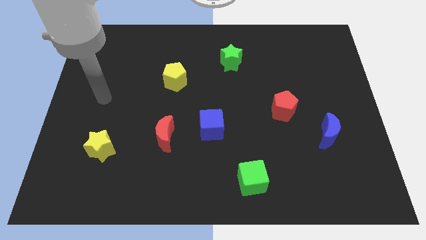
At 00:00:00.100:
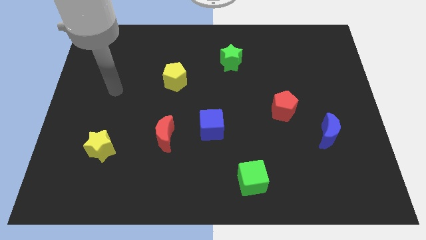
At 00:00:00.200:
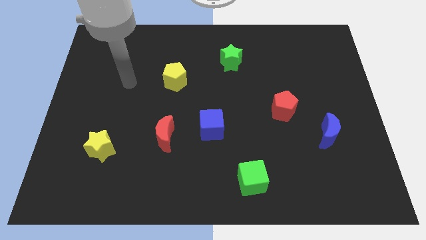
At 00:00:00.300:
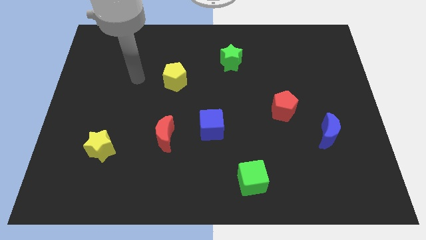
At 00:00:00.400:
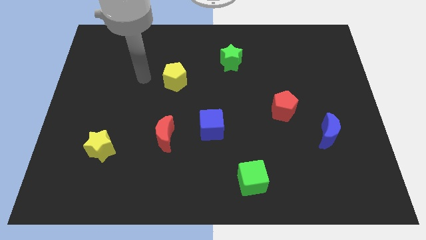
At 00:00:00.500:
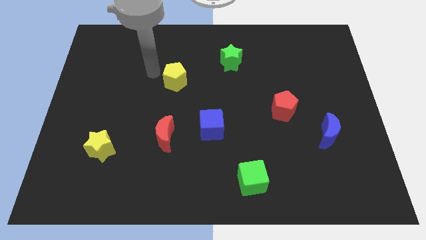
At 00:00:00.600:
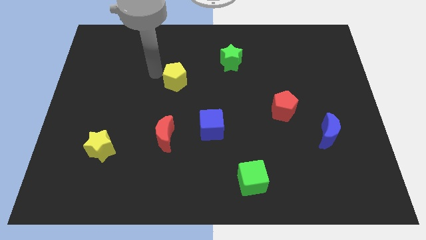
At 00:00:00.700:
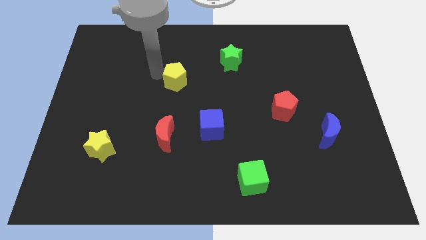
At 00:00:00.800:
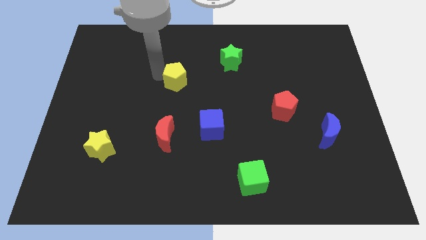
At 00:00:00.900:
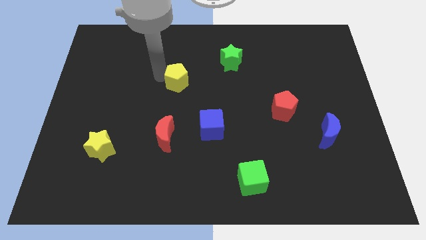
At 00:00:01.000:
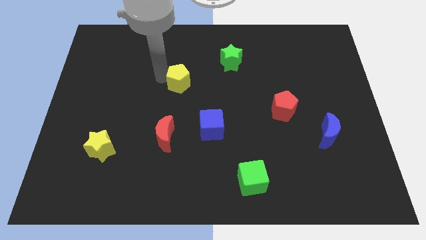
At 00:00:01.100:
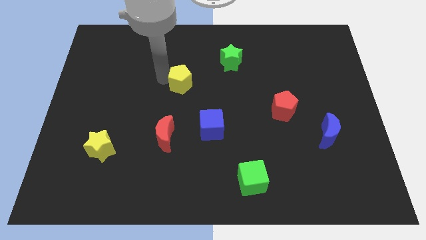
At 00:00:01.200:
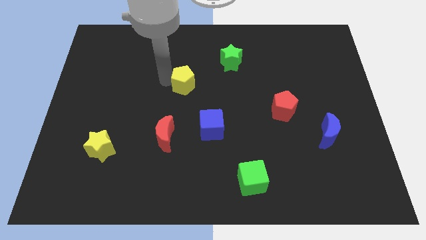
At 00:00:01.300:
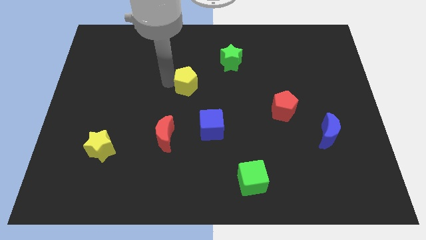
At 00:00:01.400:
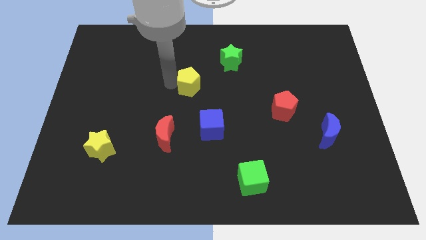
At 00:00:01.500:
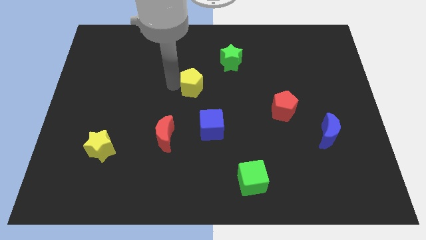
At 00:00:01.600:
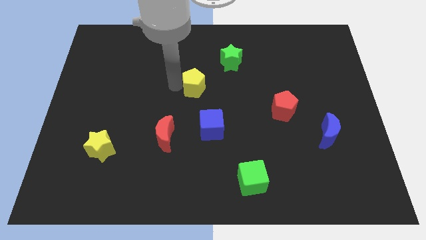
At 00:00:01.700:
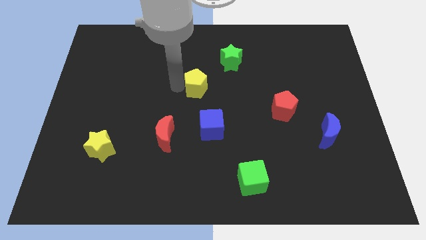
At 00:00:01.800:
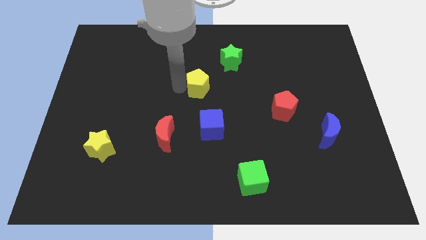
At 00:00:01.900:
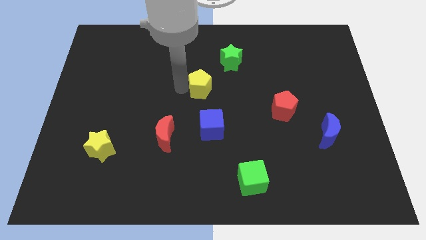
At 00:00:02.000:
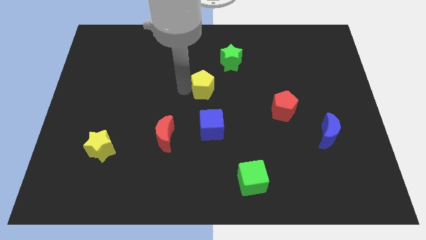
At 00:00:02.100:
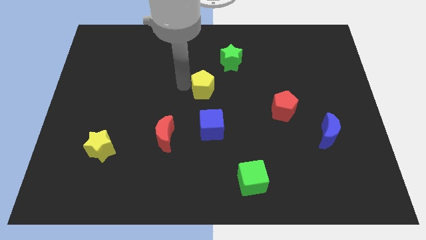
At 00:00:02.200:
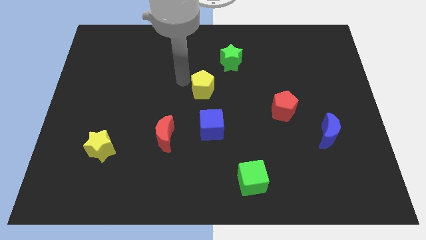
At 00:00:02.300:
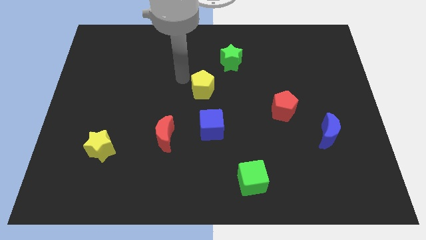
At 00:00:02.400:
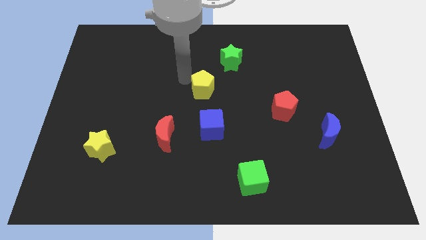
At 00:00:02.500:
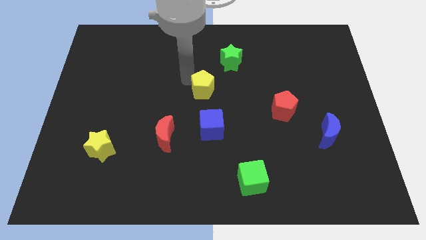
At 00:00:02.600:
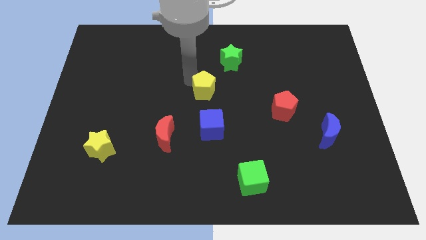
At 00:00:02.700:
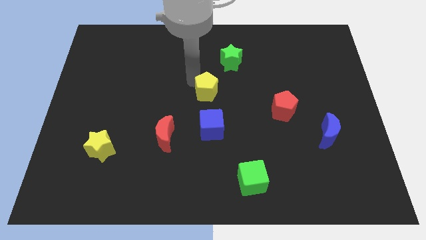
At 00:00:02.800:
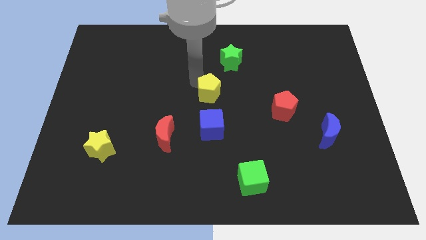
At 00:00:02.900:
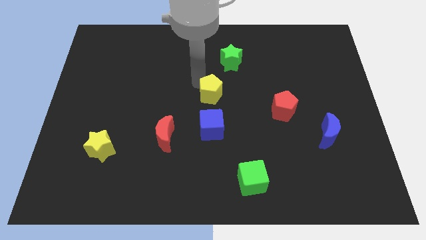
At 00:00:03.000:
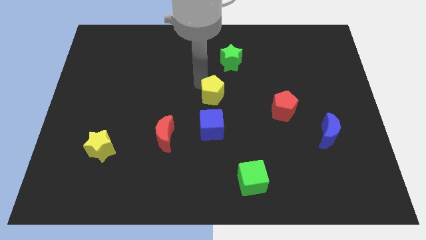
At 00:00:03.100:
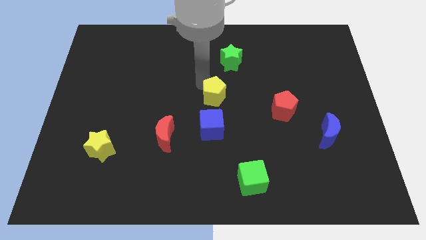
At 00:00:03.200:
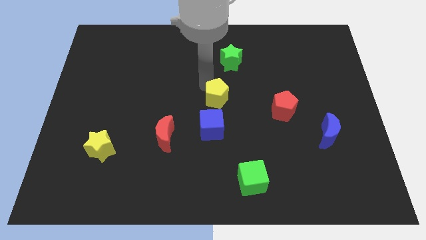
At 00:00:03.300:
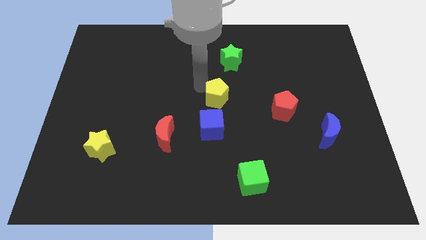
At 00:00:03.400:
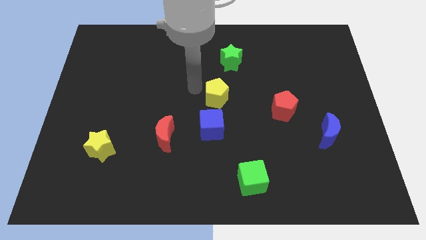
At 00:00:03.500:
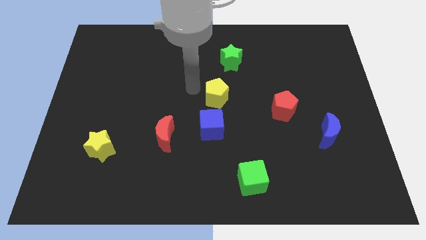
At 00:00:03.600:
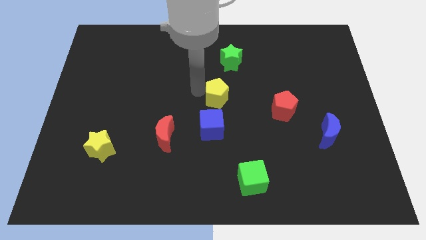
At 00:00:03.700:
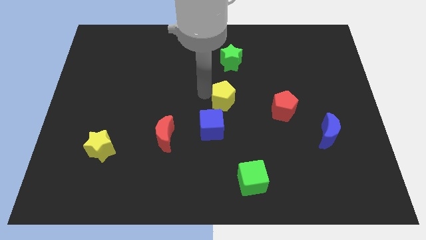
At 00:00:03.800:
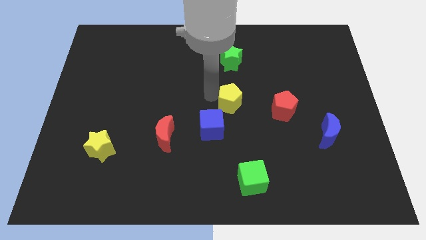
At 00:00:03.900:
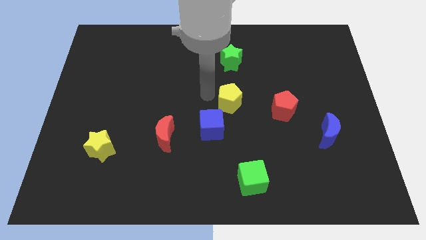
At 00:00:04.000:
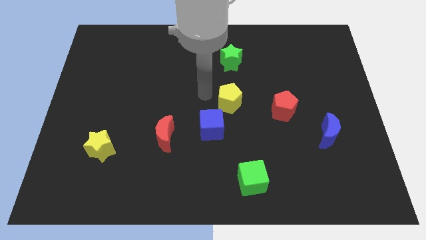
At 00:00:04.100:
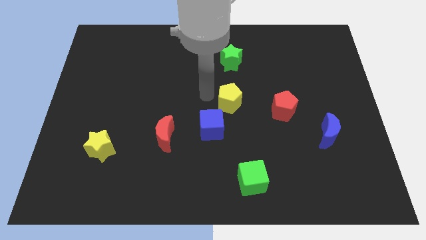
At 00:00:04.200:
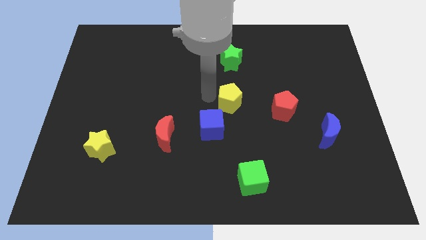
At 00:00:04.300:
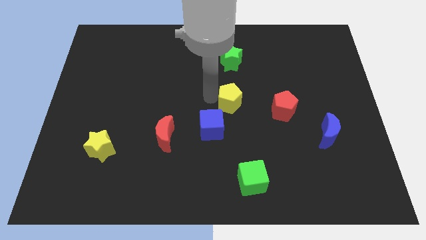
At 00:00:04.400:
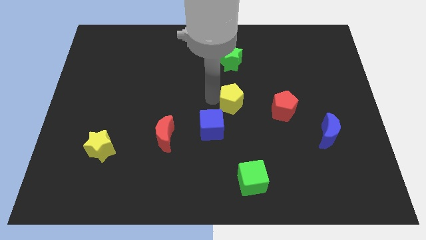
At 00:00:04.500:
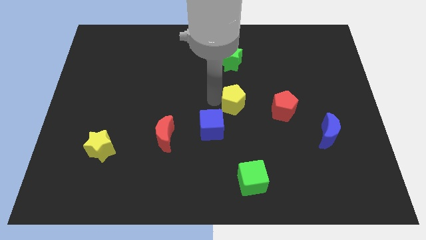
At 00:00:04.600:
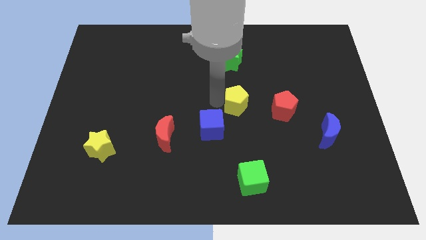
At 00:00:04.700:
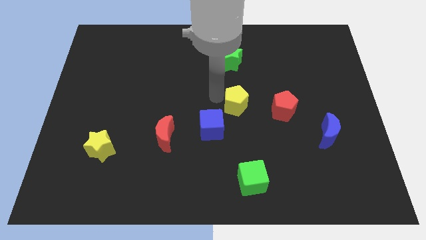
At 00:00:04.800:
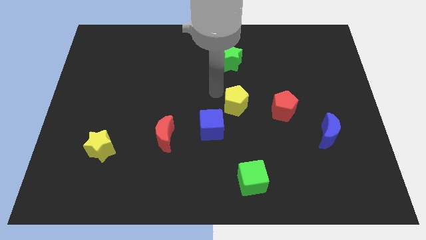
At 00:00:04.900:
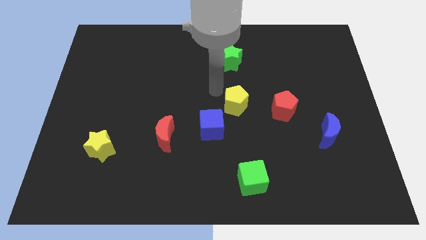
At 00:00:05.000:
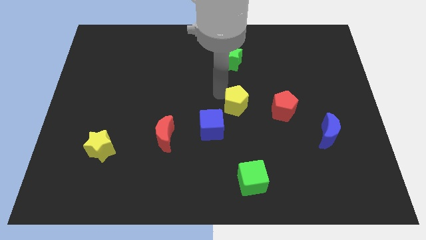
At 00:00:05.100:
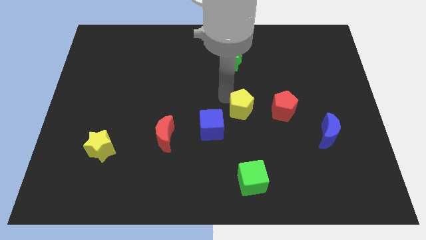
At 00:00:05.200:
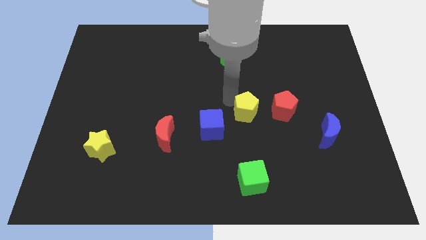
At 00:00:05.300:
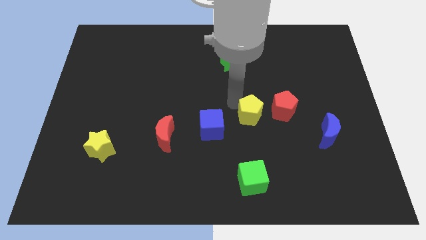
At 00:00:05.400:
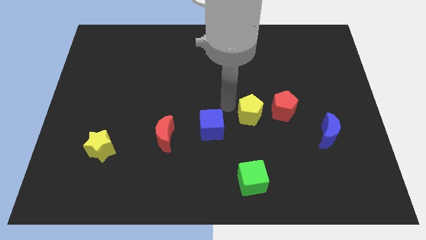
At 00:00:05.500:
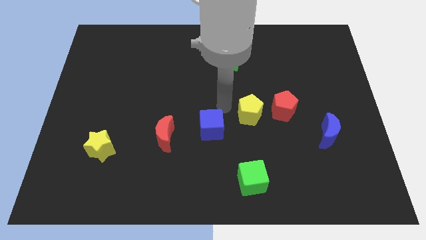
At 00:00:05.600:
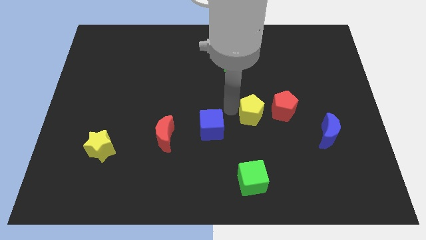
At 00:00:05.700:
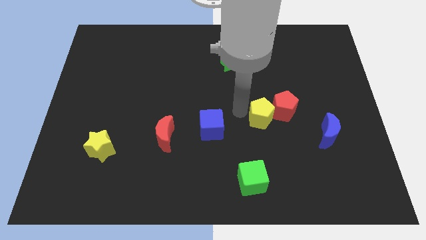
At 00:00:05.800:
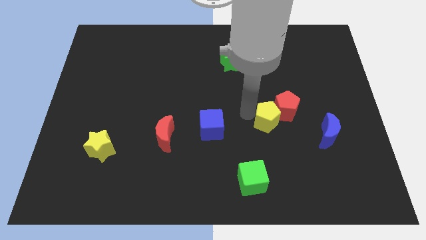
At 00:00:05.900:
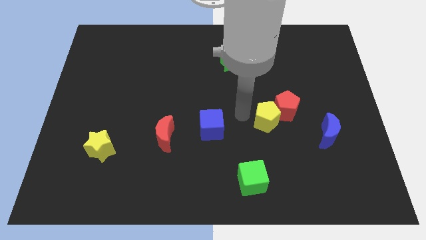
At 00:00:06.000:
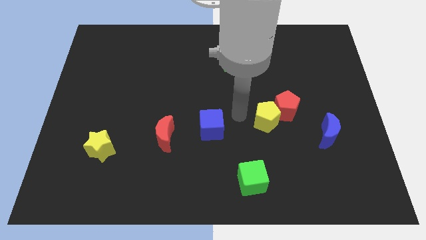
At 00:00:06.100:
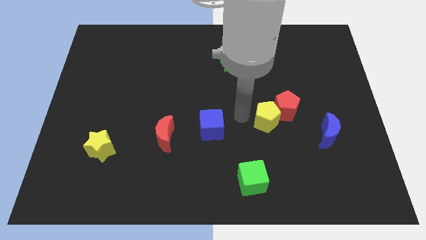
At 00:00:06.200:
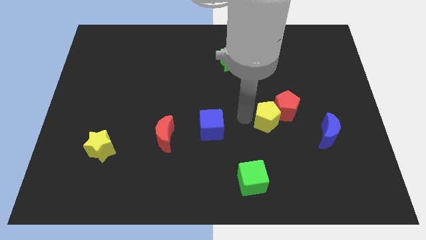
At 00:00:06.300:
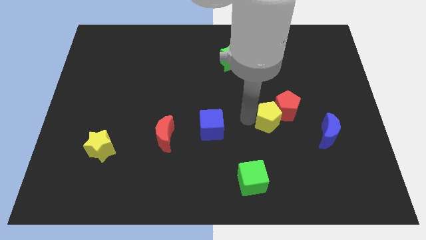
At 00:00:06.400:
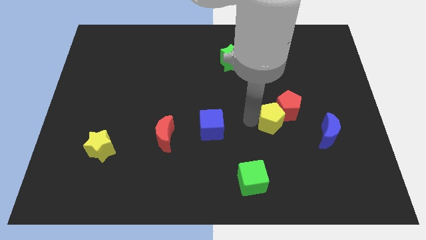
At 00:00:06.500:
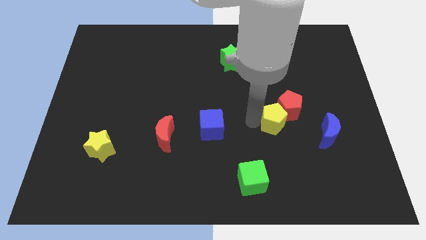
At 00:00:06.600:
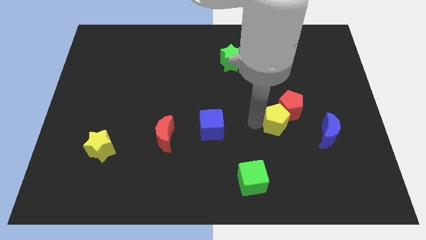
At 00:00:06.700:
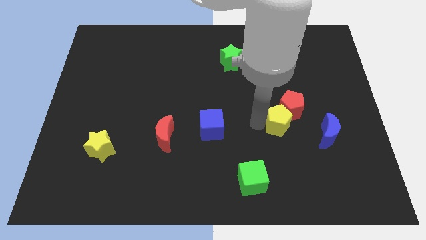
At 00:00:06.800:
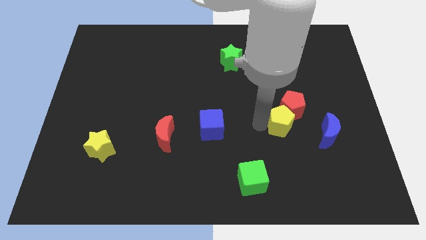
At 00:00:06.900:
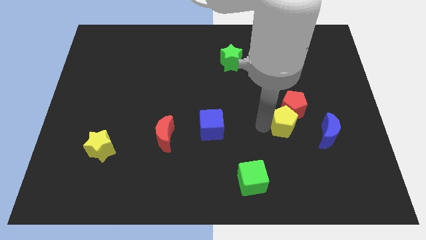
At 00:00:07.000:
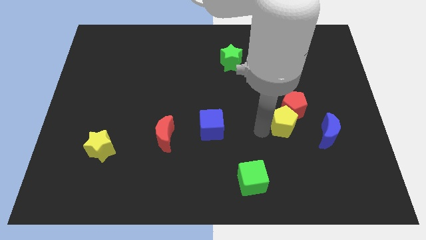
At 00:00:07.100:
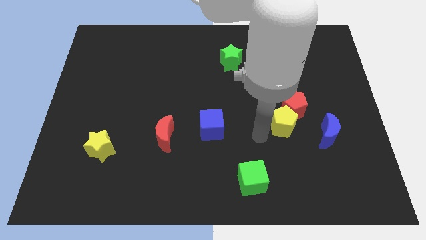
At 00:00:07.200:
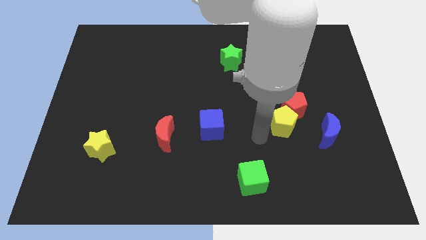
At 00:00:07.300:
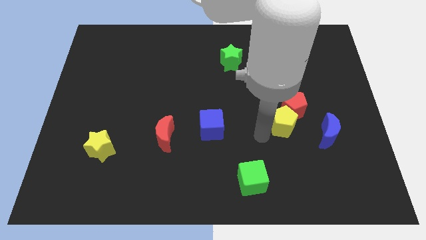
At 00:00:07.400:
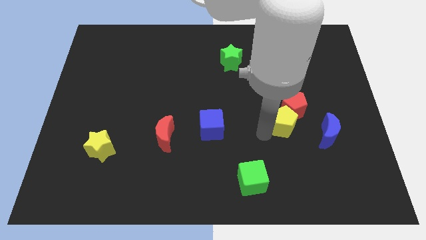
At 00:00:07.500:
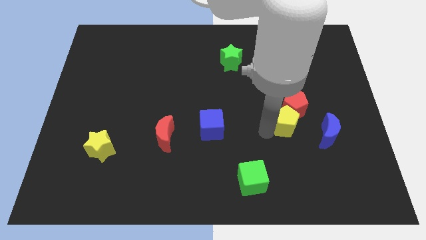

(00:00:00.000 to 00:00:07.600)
slide the yellow pentagon to the top left side of the blue moon
